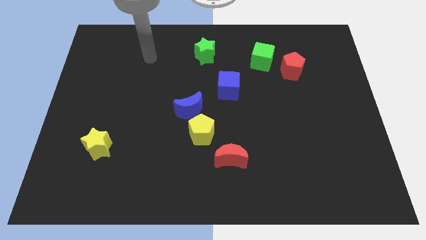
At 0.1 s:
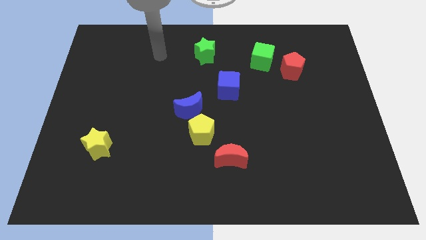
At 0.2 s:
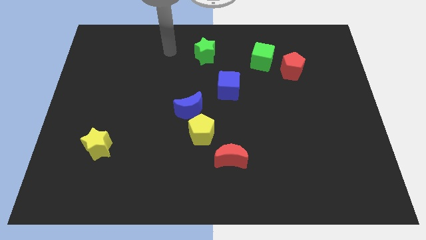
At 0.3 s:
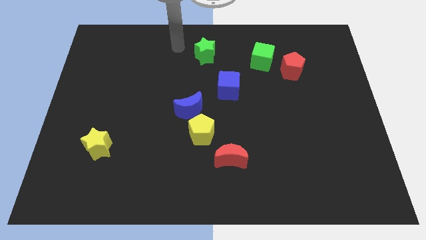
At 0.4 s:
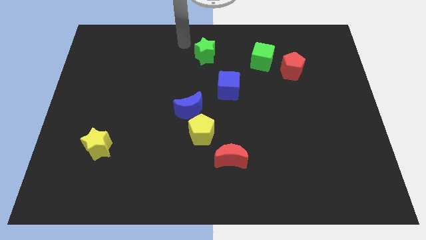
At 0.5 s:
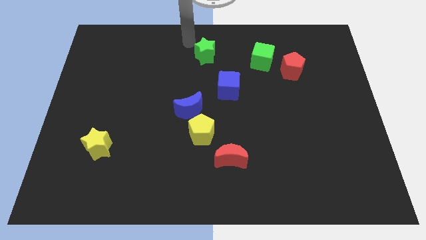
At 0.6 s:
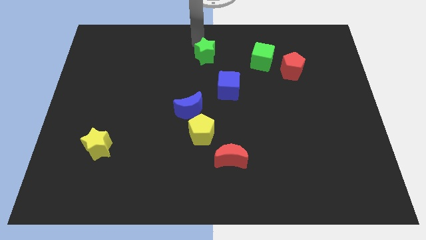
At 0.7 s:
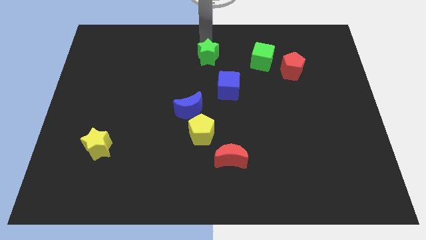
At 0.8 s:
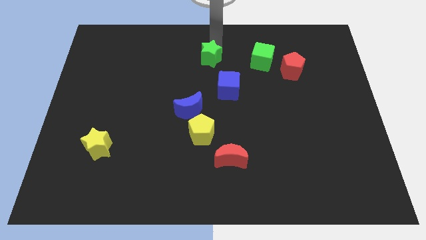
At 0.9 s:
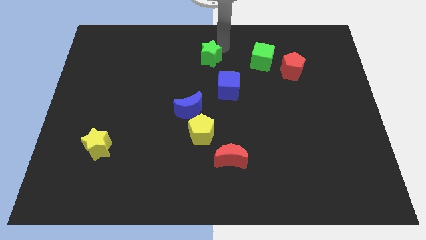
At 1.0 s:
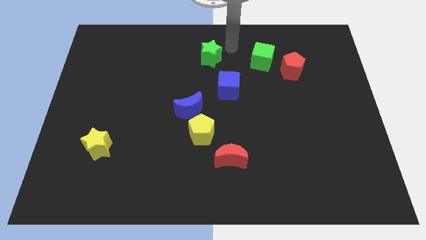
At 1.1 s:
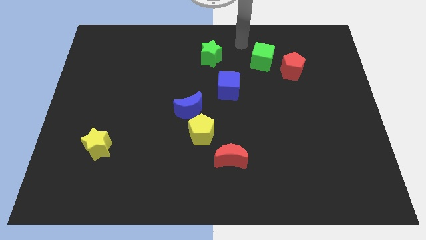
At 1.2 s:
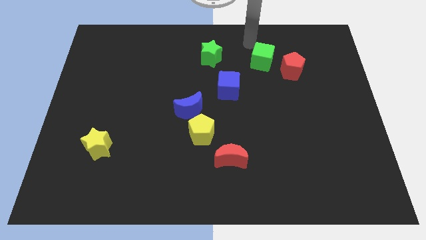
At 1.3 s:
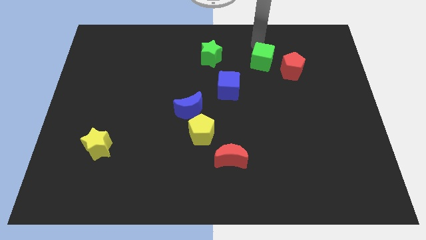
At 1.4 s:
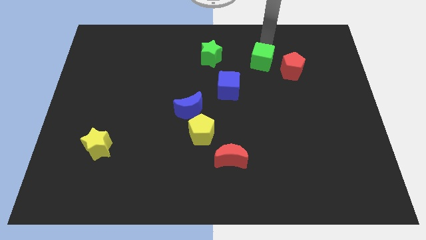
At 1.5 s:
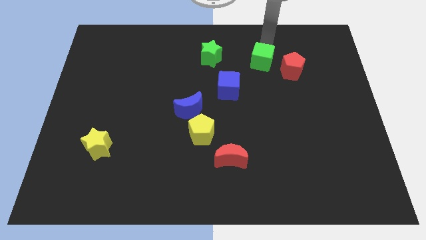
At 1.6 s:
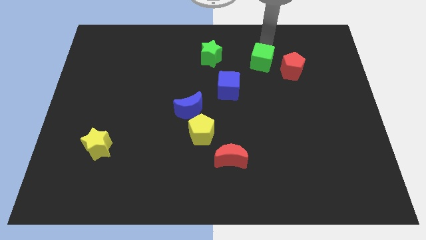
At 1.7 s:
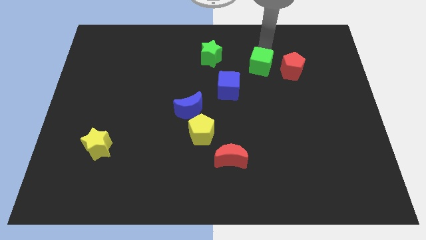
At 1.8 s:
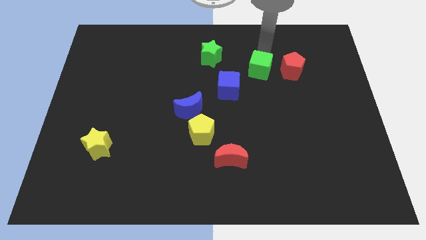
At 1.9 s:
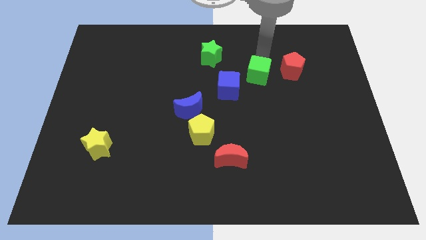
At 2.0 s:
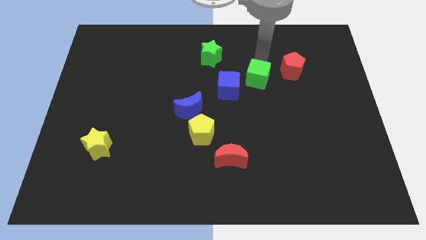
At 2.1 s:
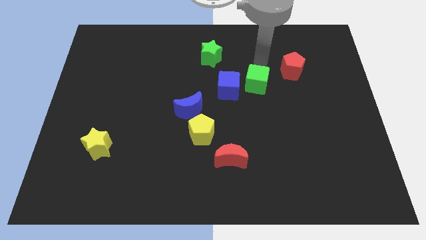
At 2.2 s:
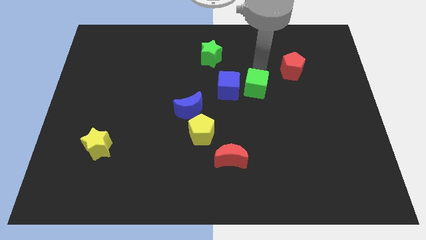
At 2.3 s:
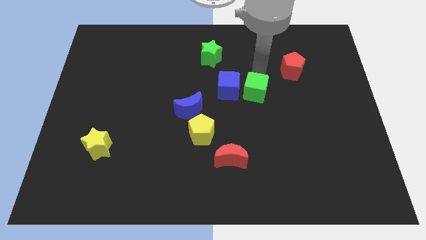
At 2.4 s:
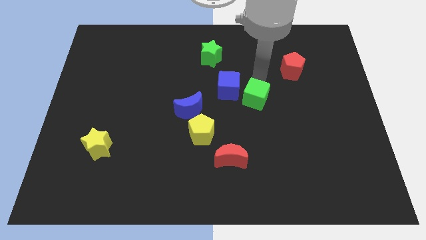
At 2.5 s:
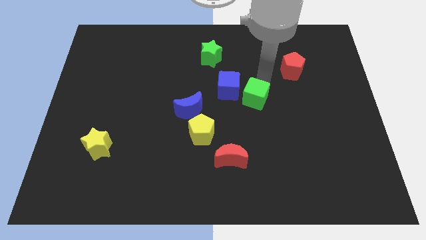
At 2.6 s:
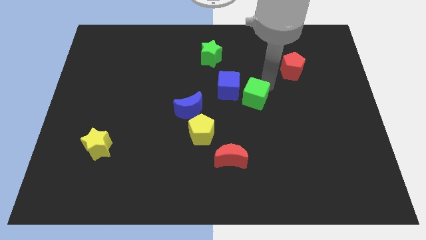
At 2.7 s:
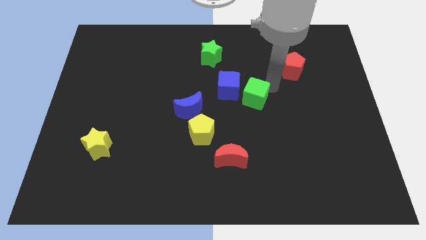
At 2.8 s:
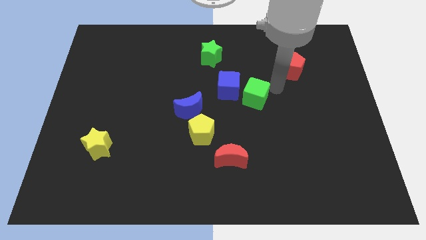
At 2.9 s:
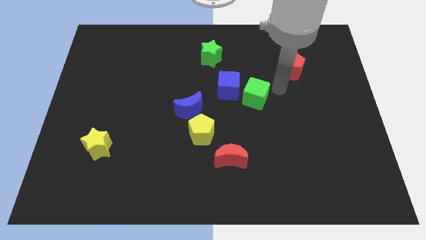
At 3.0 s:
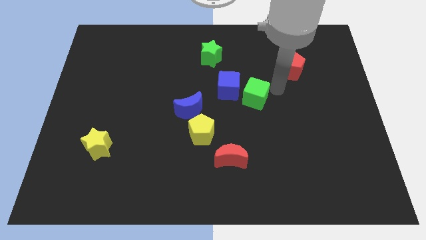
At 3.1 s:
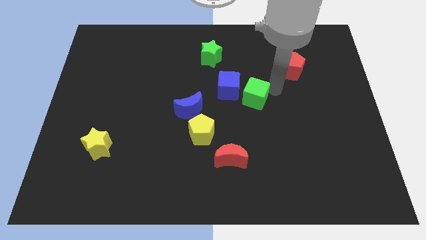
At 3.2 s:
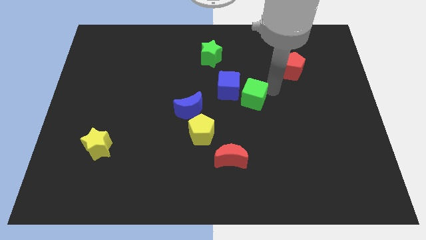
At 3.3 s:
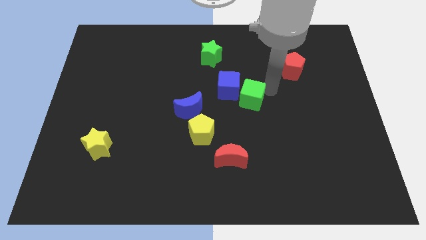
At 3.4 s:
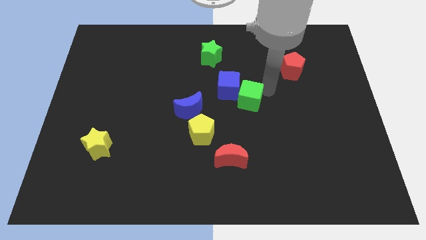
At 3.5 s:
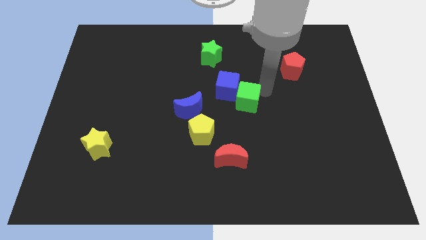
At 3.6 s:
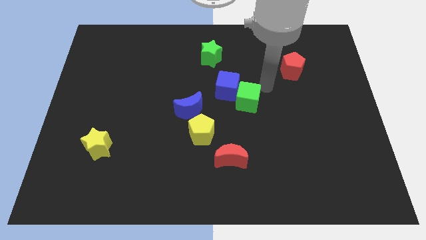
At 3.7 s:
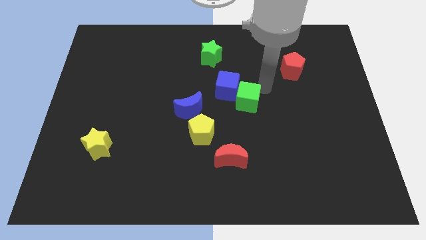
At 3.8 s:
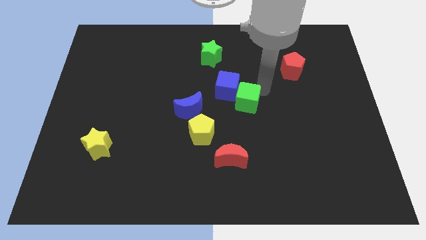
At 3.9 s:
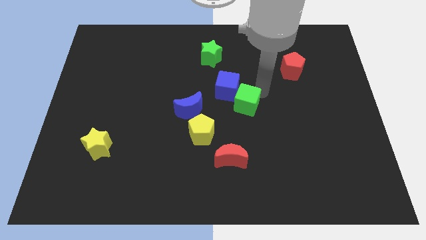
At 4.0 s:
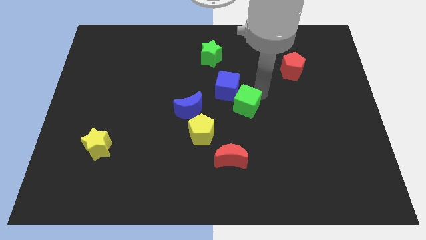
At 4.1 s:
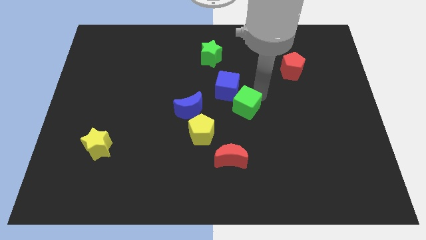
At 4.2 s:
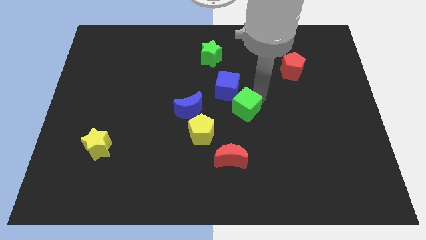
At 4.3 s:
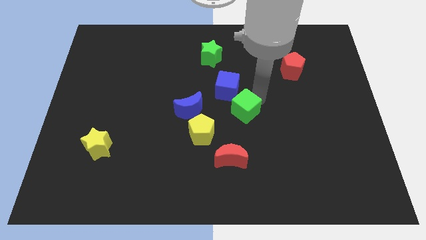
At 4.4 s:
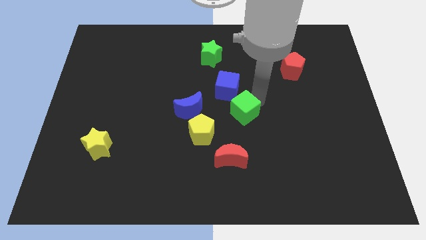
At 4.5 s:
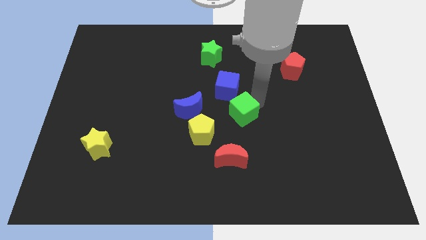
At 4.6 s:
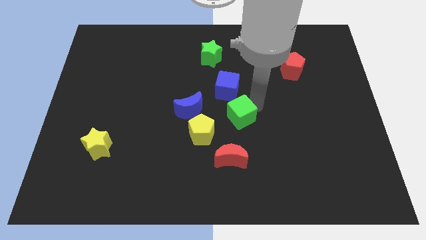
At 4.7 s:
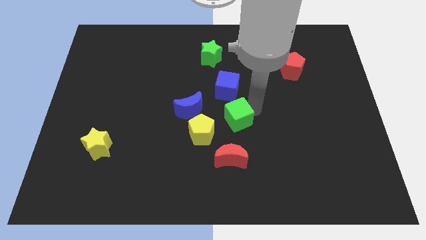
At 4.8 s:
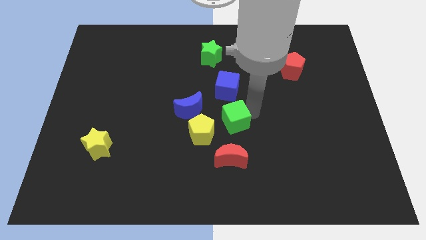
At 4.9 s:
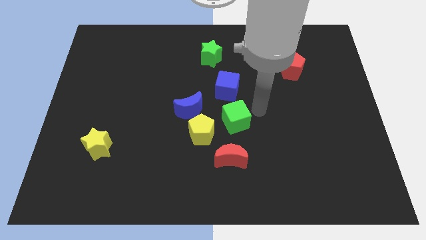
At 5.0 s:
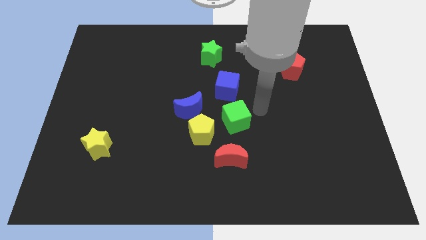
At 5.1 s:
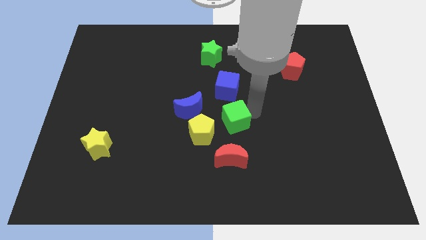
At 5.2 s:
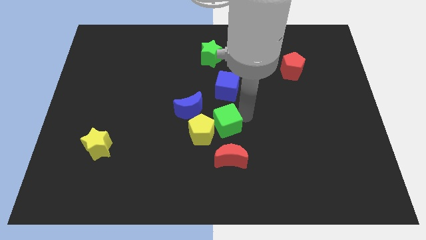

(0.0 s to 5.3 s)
push the green cube to the yellow pentagon

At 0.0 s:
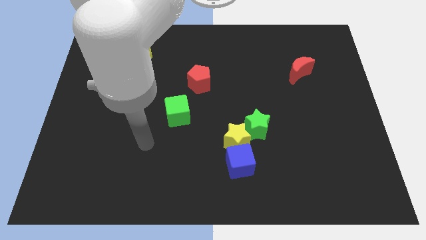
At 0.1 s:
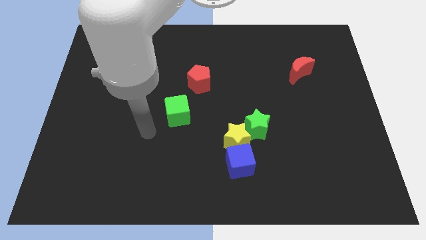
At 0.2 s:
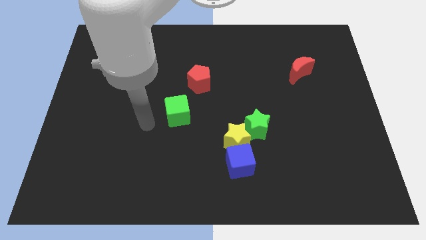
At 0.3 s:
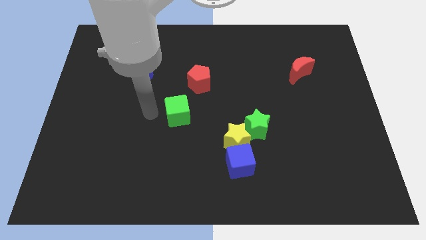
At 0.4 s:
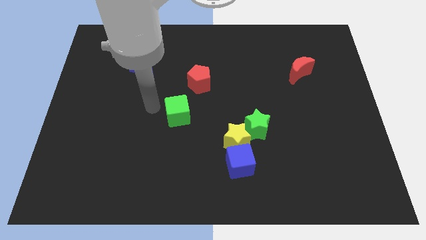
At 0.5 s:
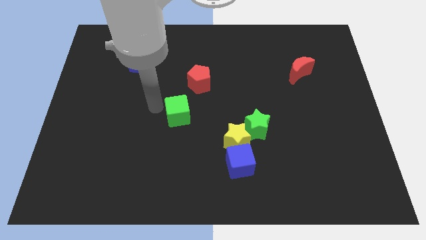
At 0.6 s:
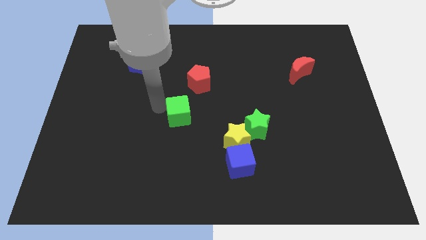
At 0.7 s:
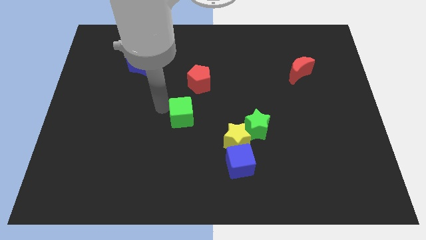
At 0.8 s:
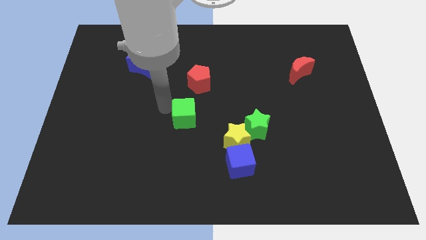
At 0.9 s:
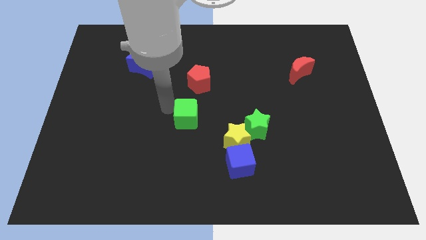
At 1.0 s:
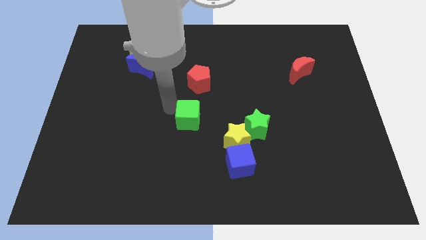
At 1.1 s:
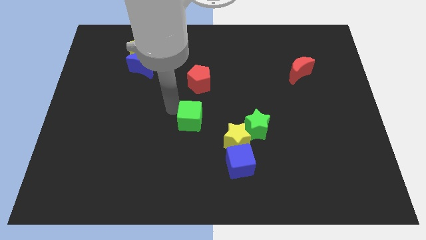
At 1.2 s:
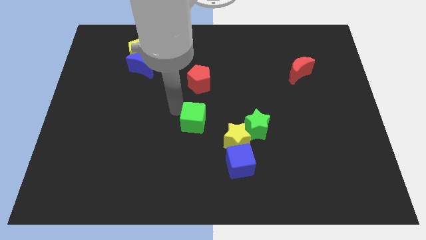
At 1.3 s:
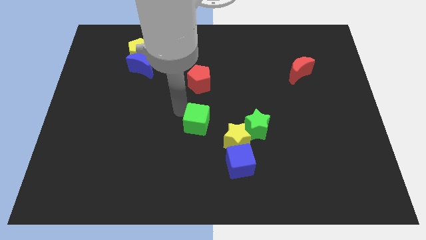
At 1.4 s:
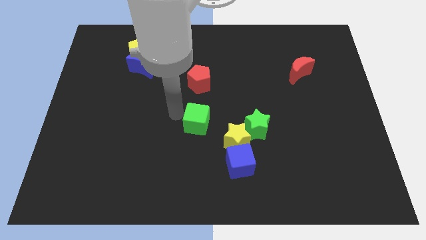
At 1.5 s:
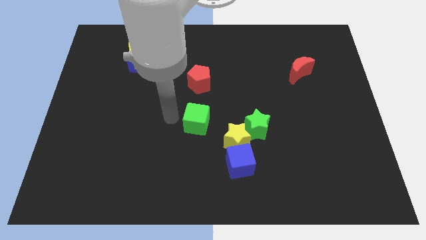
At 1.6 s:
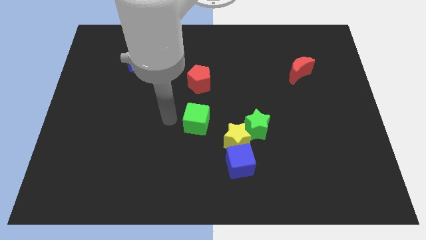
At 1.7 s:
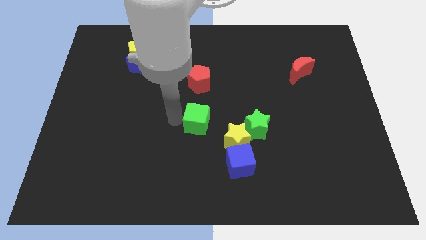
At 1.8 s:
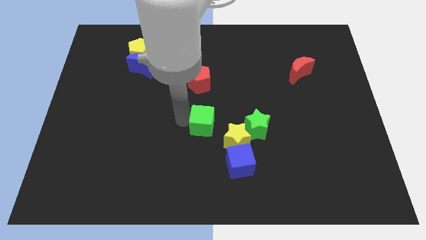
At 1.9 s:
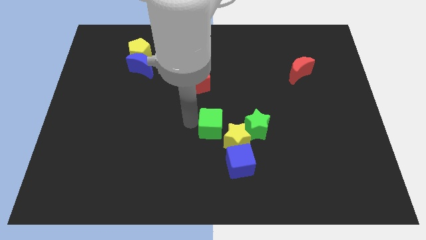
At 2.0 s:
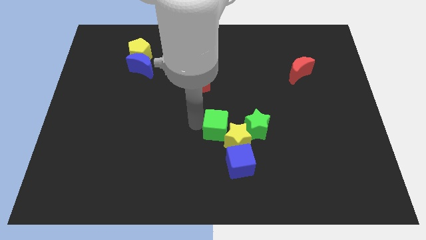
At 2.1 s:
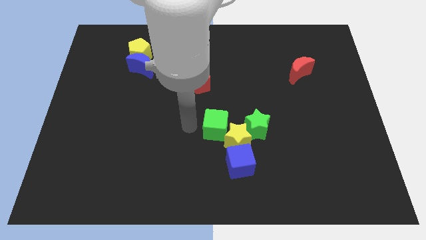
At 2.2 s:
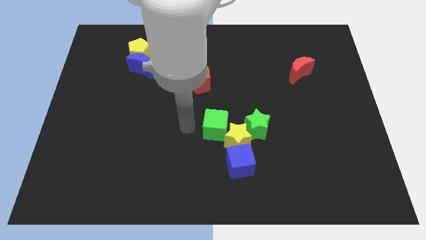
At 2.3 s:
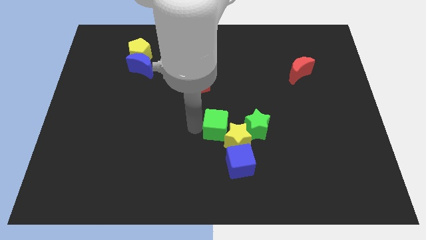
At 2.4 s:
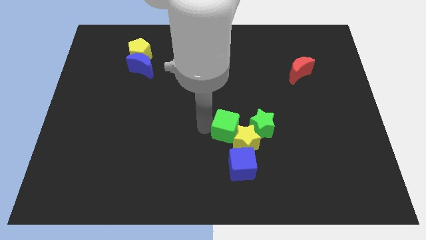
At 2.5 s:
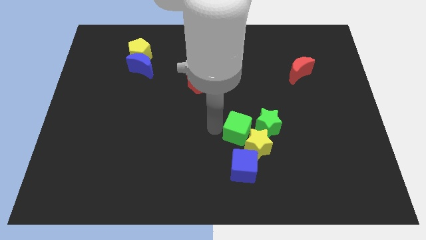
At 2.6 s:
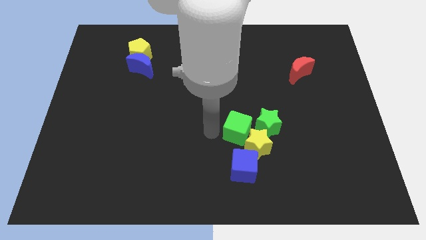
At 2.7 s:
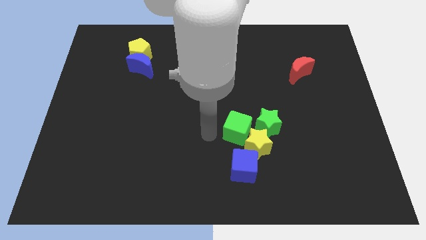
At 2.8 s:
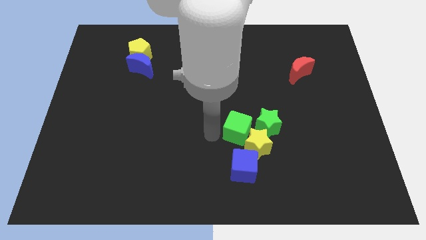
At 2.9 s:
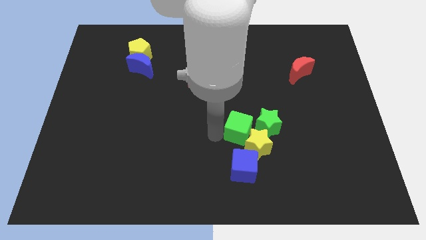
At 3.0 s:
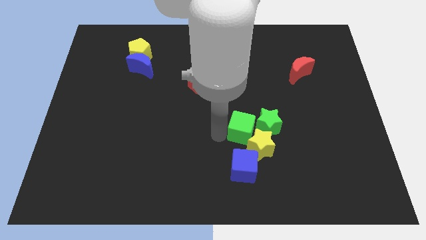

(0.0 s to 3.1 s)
slide the green cube towards the green star
